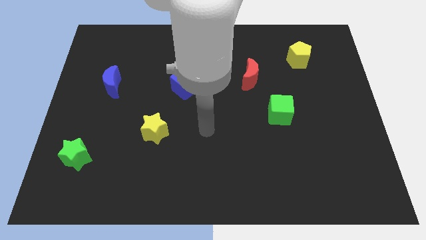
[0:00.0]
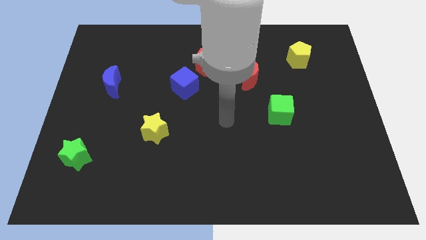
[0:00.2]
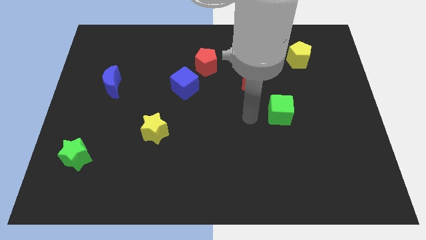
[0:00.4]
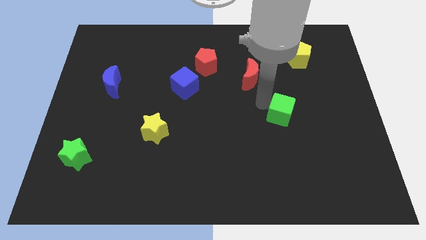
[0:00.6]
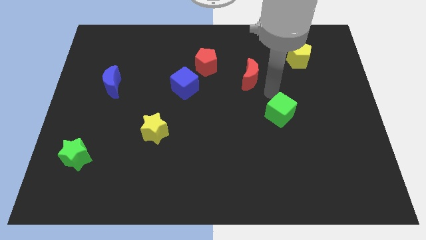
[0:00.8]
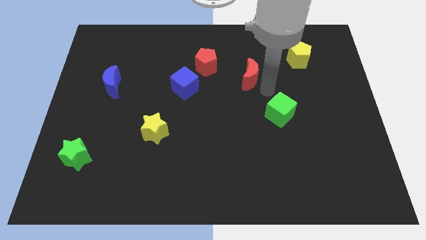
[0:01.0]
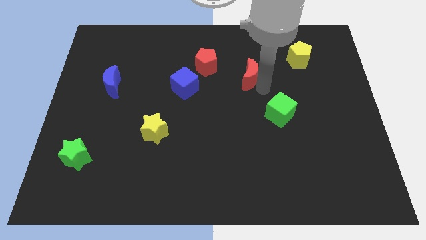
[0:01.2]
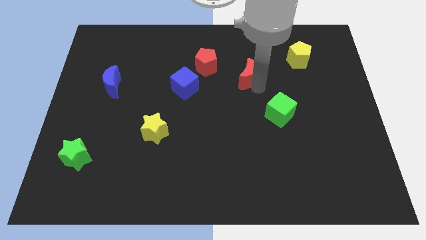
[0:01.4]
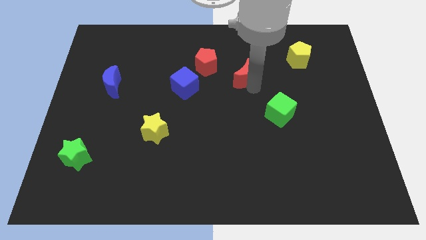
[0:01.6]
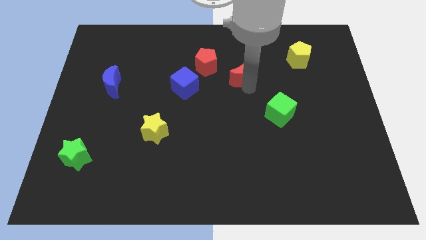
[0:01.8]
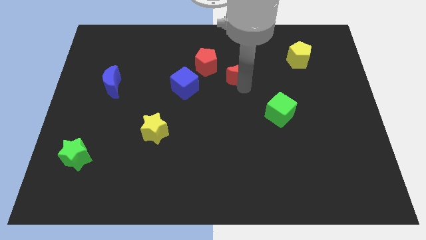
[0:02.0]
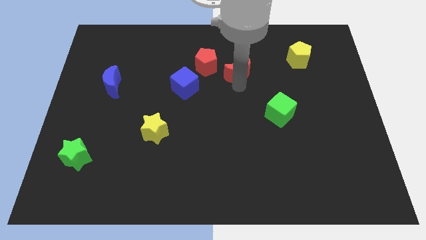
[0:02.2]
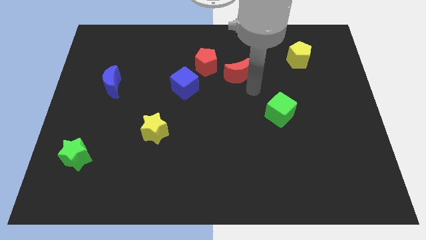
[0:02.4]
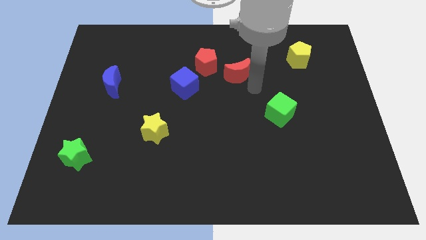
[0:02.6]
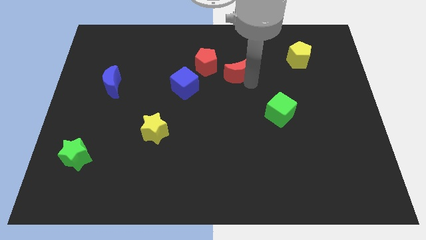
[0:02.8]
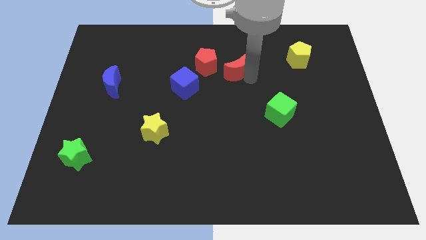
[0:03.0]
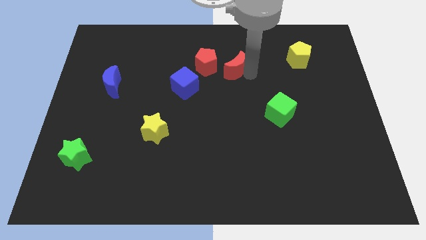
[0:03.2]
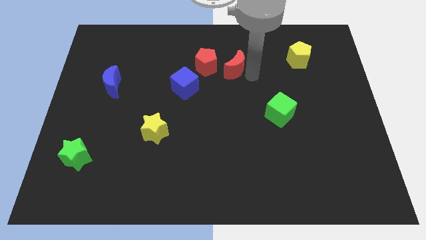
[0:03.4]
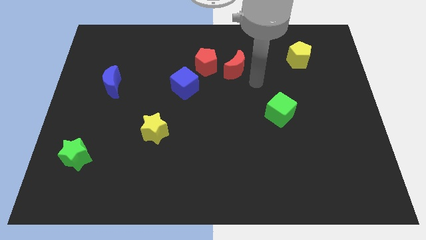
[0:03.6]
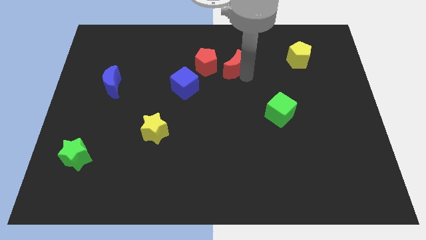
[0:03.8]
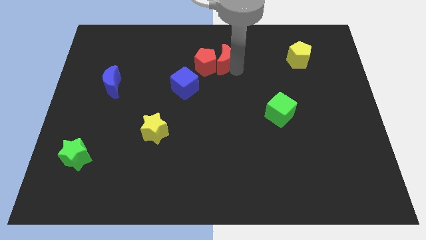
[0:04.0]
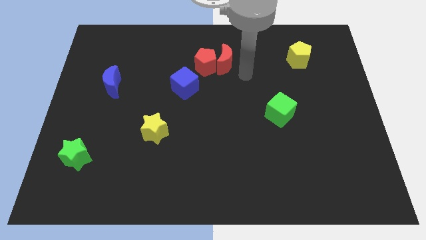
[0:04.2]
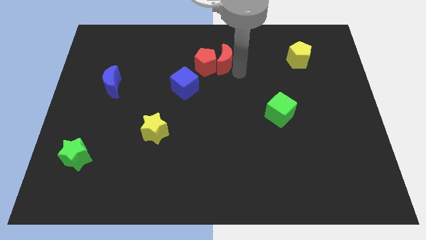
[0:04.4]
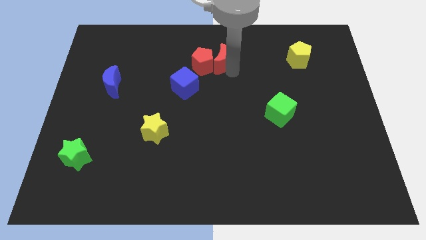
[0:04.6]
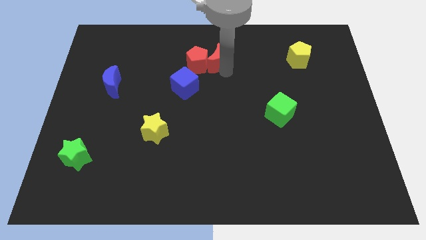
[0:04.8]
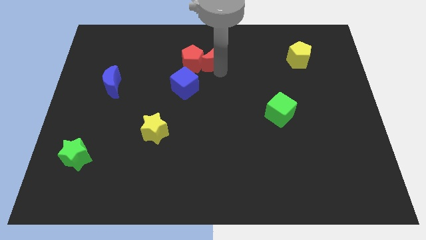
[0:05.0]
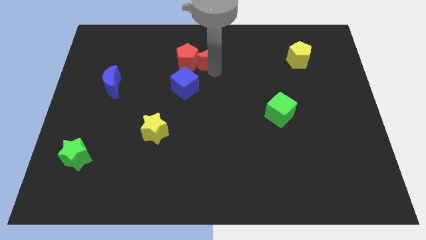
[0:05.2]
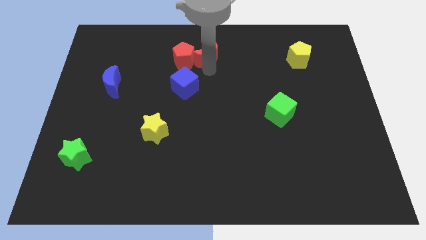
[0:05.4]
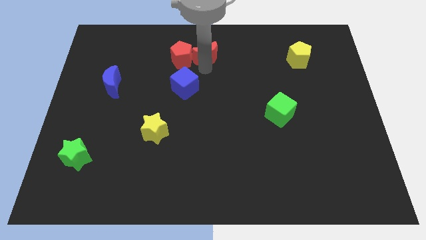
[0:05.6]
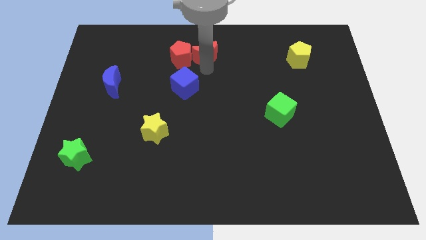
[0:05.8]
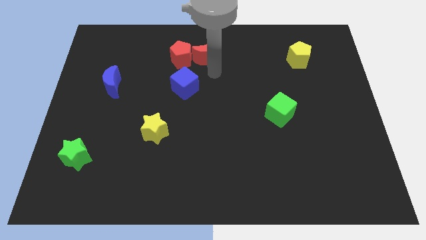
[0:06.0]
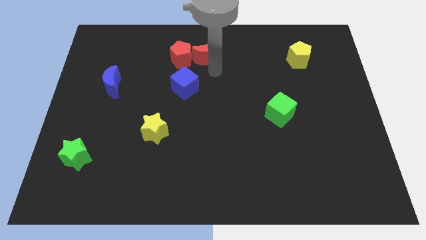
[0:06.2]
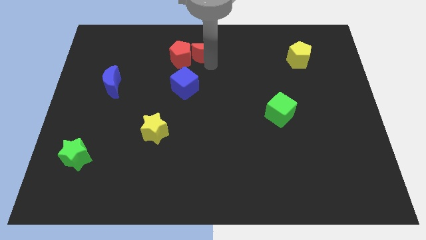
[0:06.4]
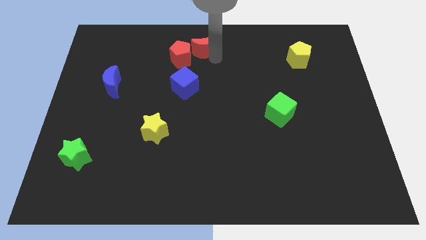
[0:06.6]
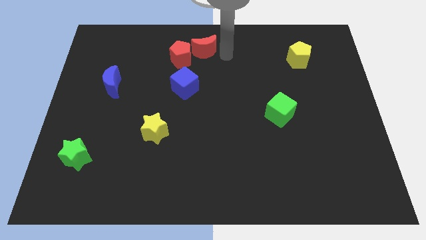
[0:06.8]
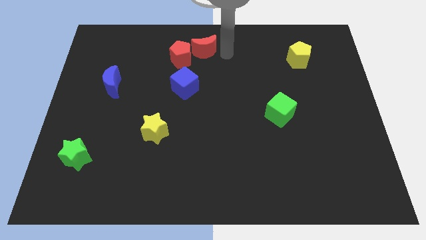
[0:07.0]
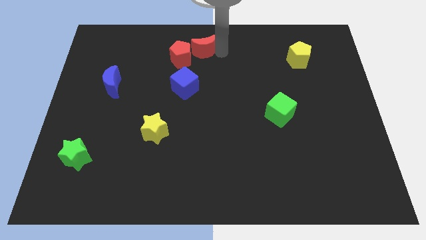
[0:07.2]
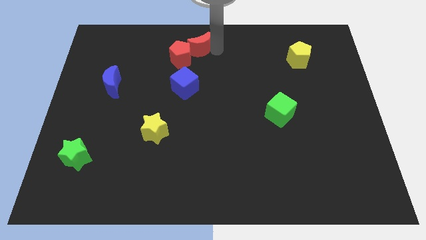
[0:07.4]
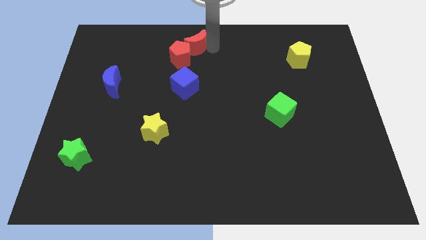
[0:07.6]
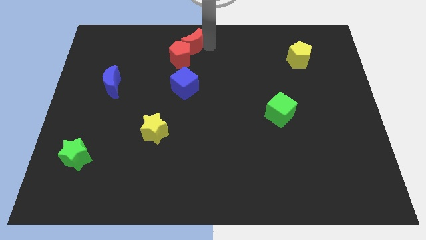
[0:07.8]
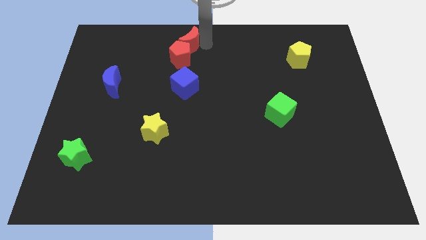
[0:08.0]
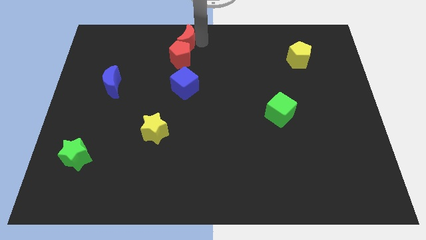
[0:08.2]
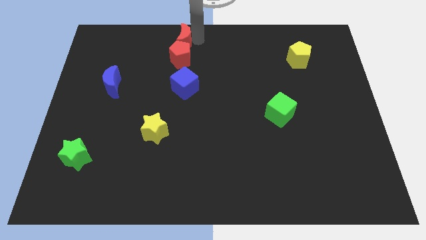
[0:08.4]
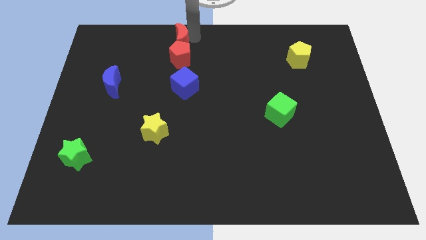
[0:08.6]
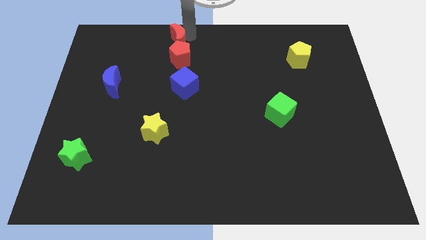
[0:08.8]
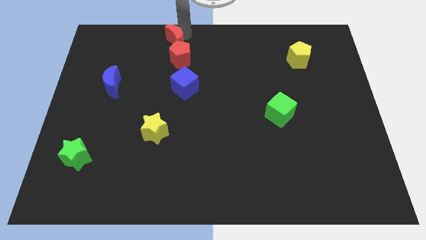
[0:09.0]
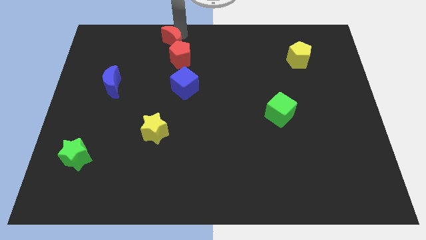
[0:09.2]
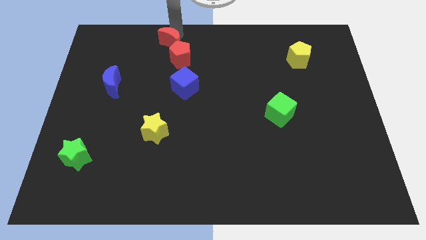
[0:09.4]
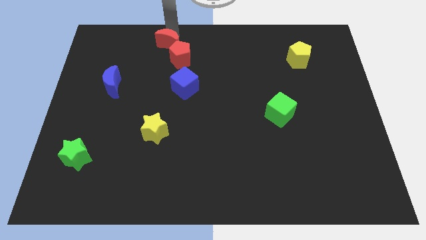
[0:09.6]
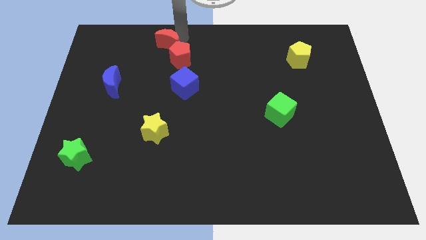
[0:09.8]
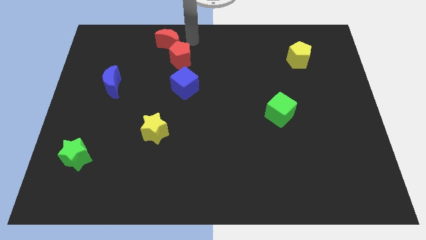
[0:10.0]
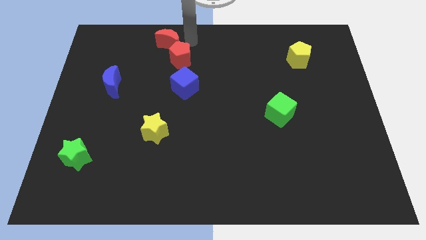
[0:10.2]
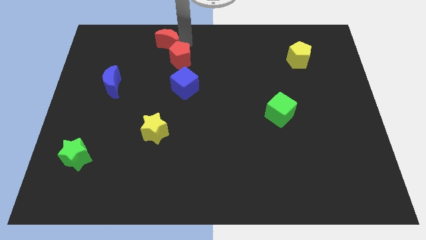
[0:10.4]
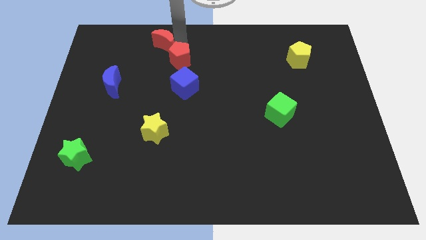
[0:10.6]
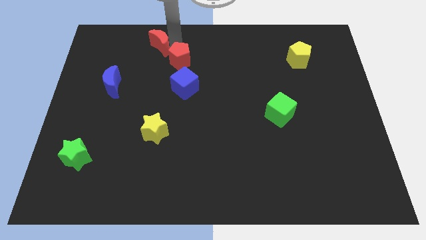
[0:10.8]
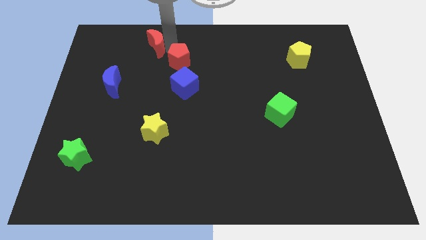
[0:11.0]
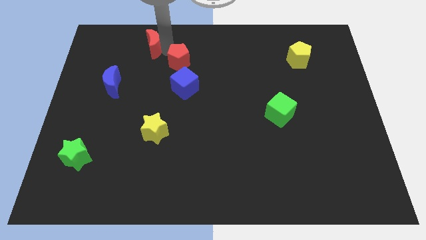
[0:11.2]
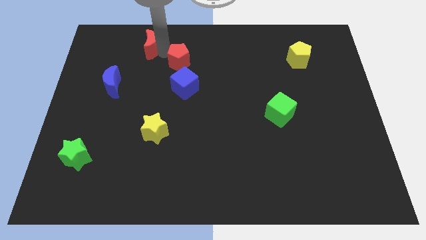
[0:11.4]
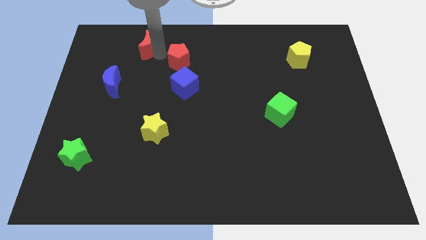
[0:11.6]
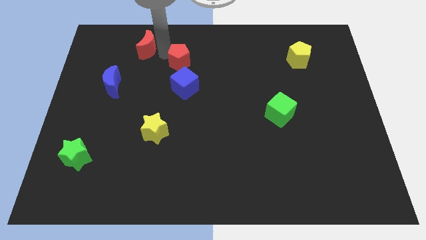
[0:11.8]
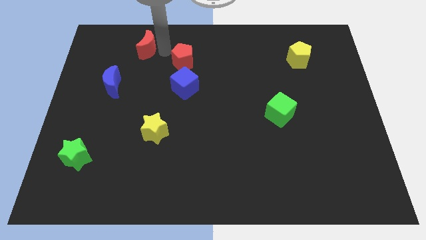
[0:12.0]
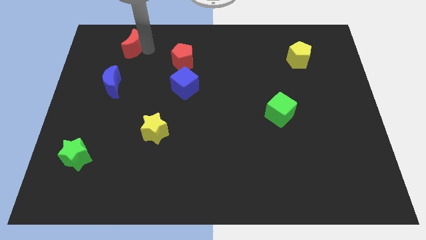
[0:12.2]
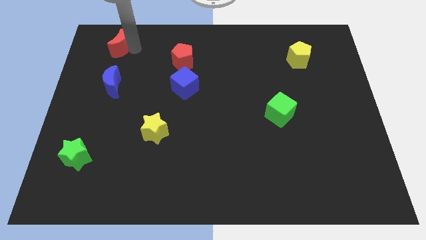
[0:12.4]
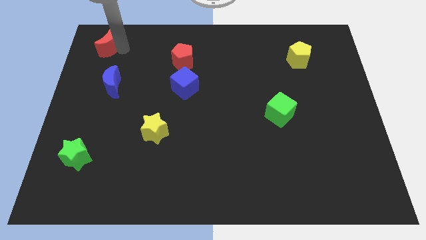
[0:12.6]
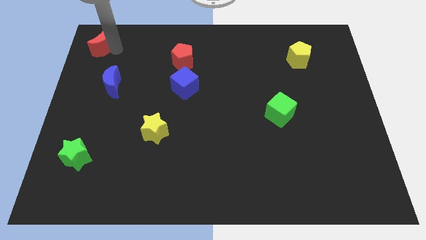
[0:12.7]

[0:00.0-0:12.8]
move the red moon to the upper left corner
